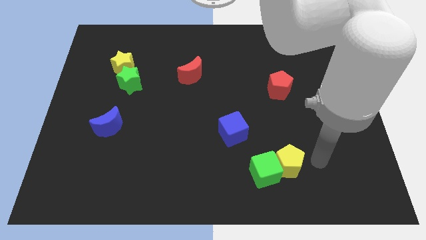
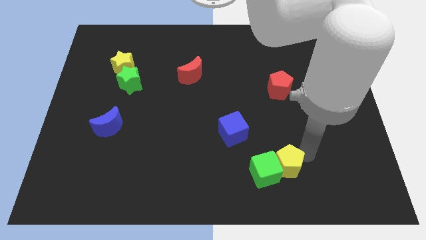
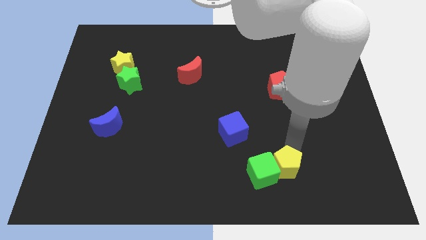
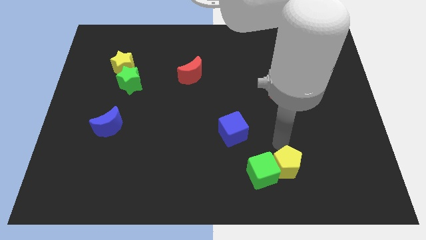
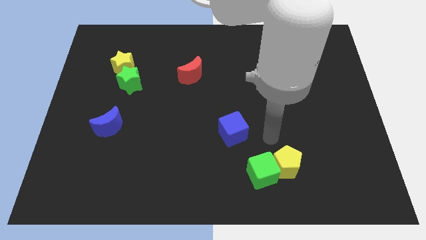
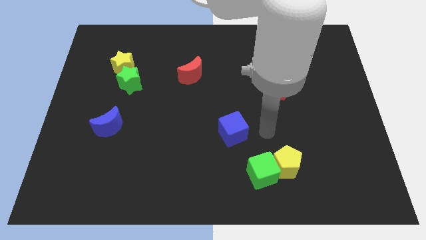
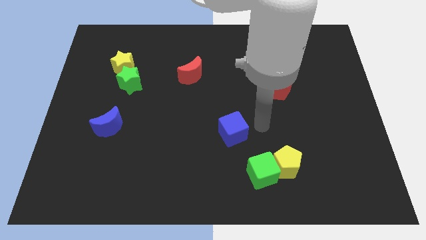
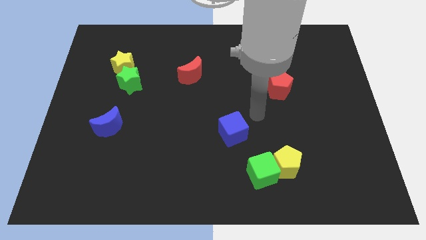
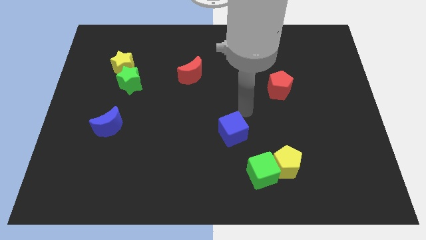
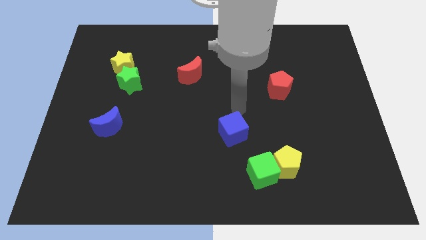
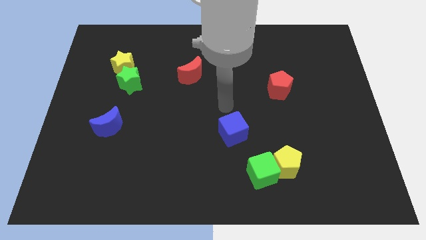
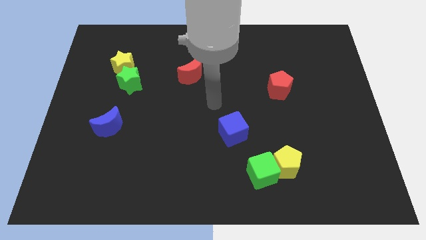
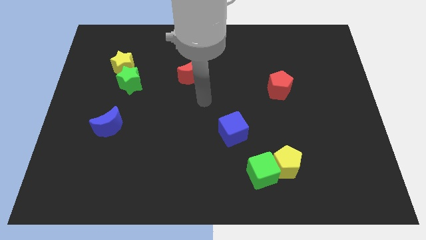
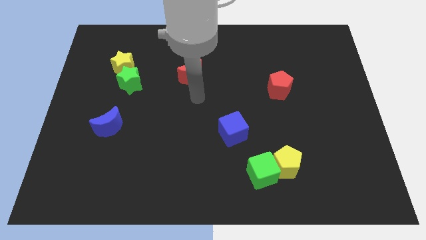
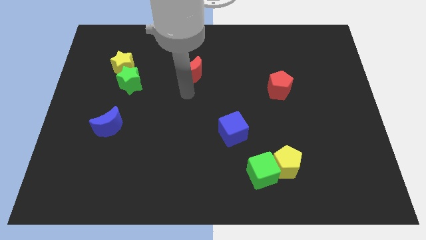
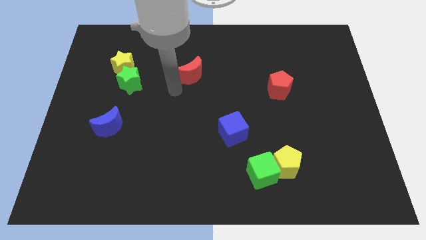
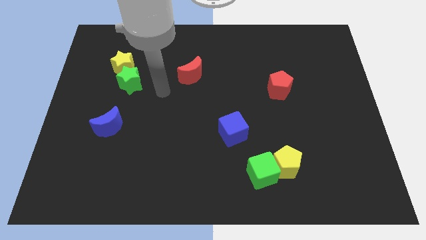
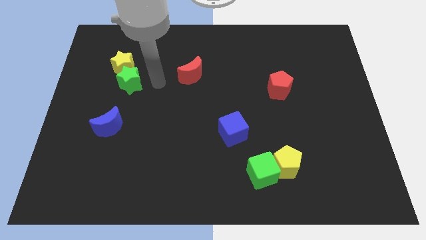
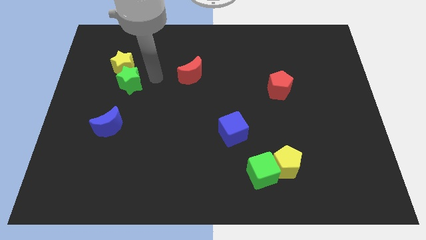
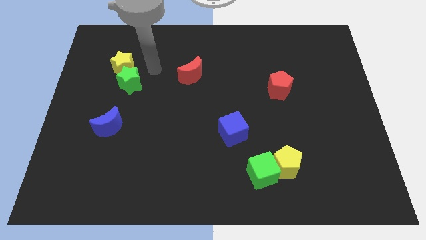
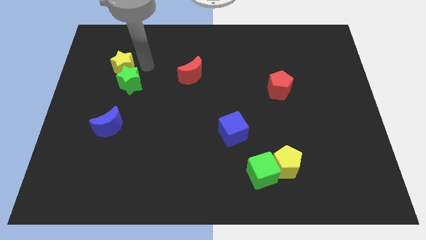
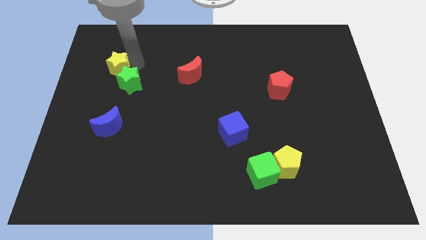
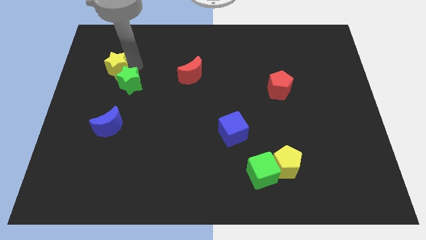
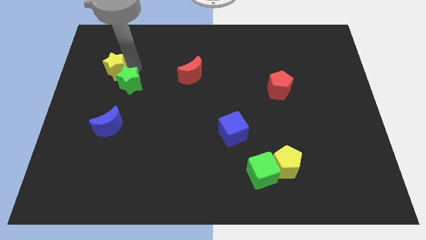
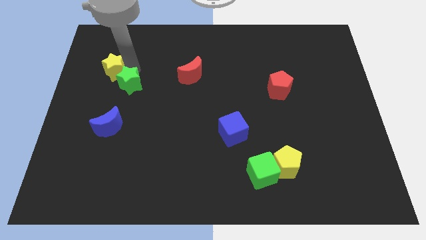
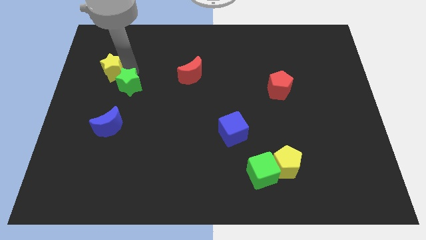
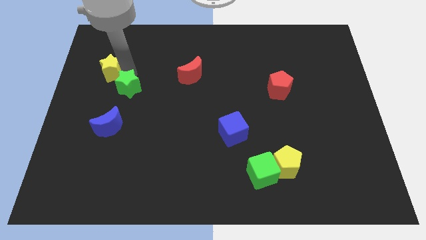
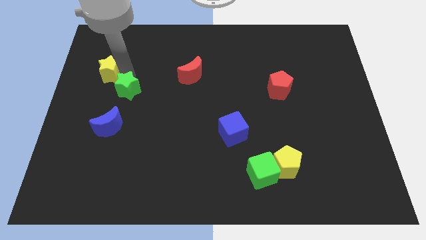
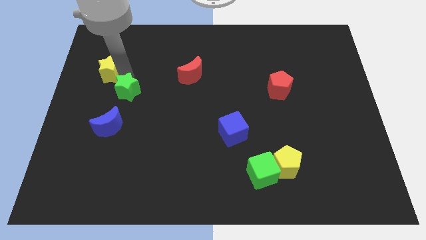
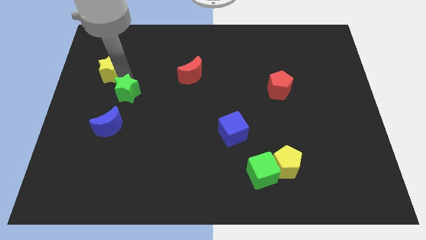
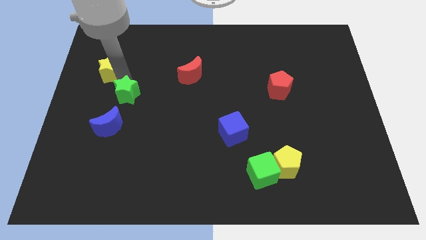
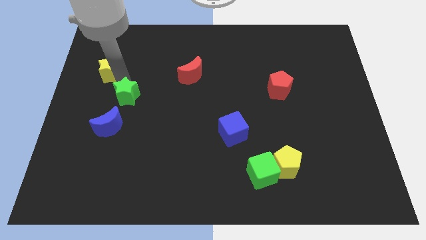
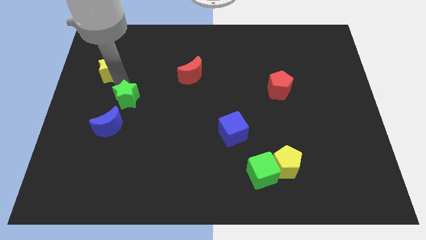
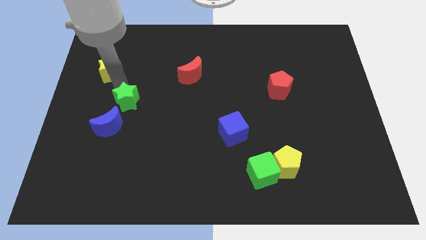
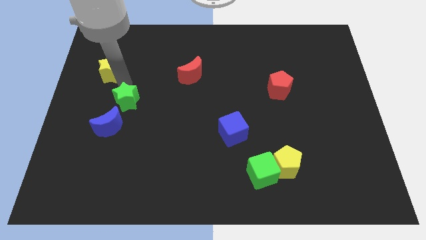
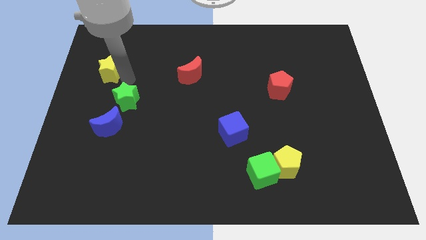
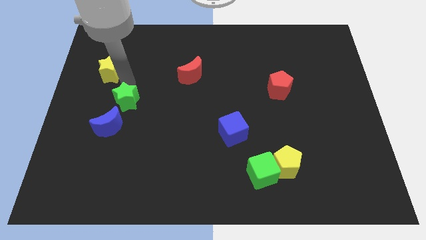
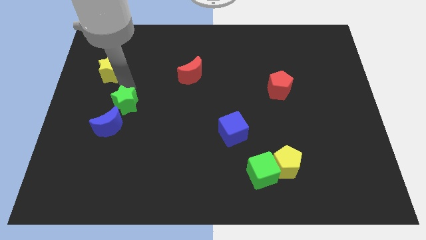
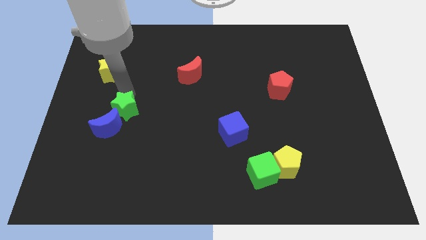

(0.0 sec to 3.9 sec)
push the green star down a little bit

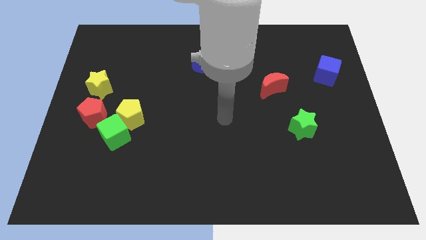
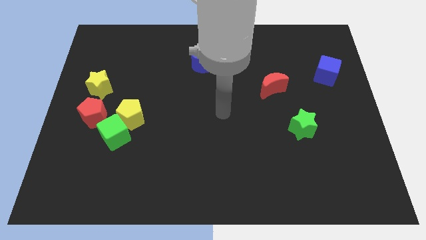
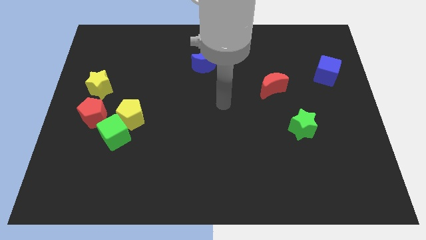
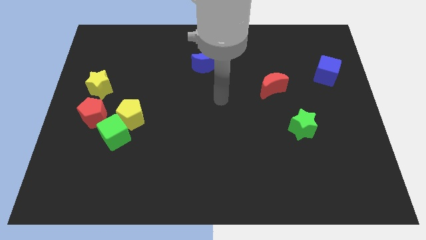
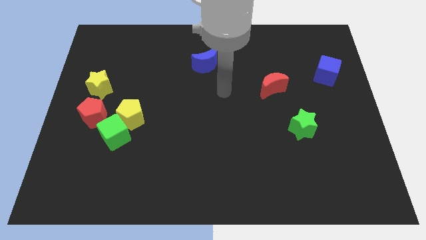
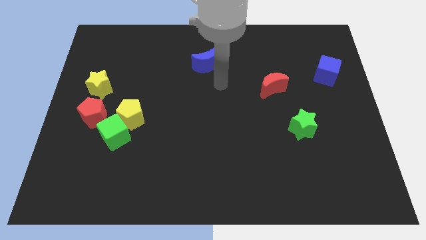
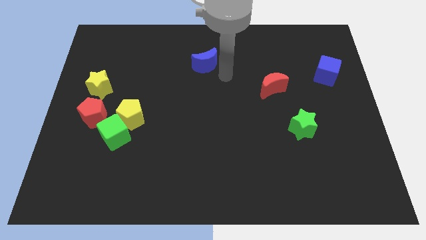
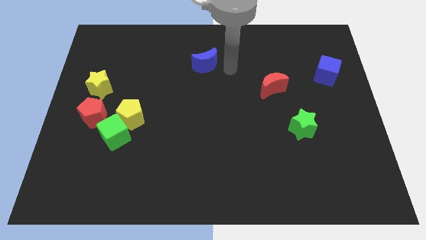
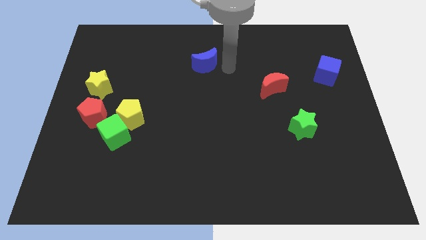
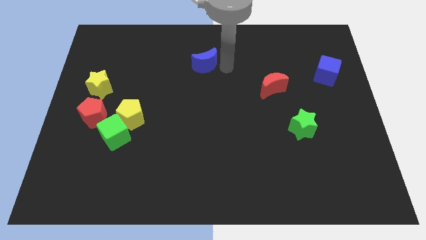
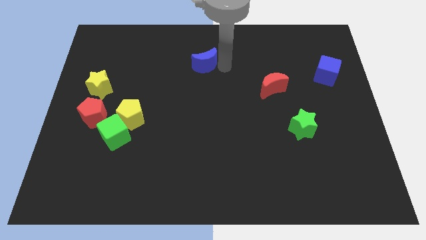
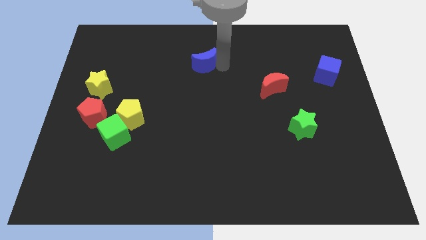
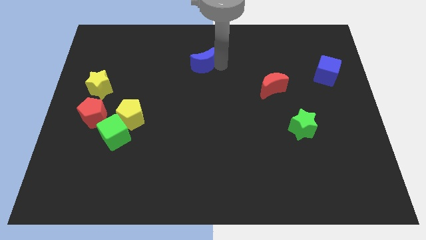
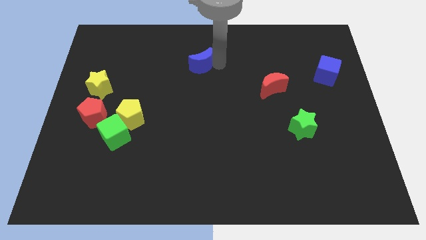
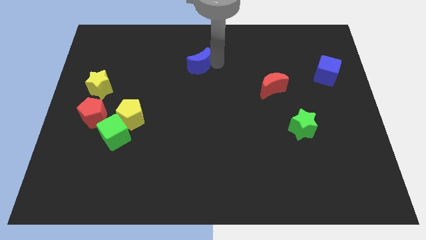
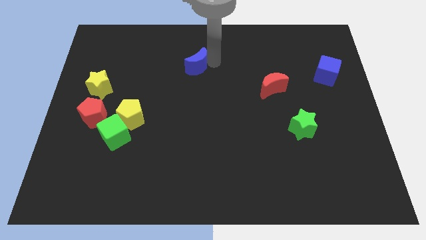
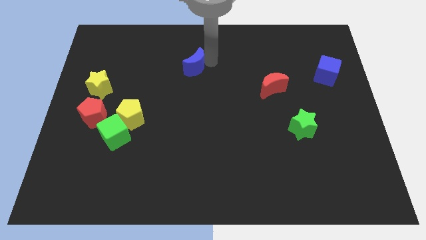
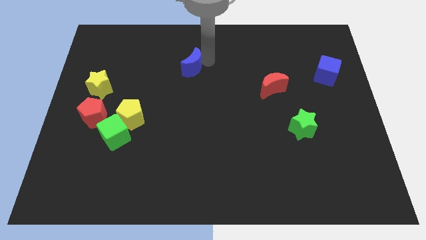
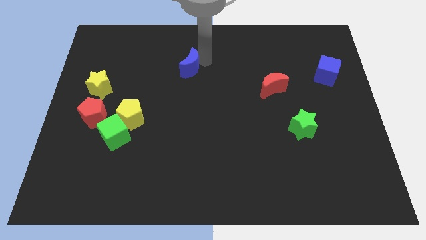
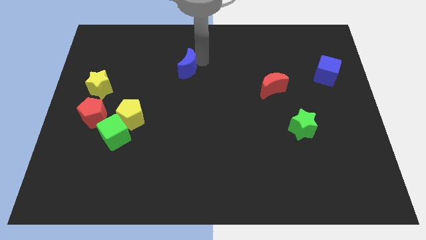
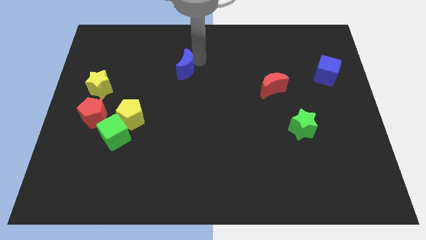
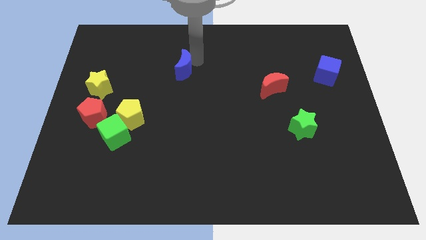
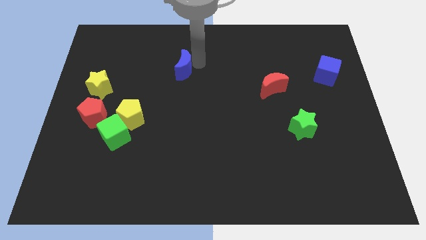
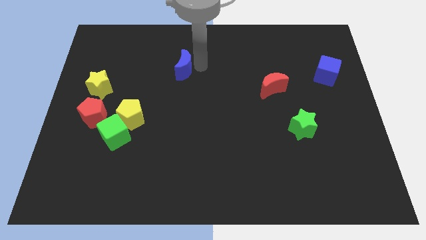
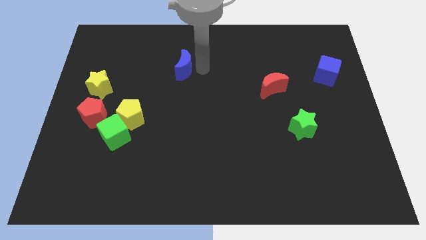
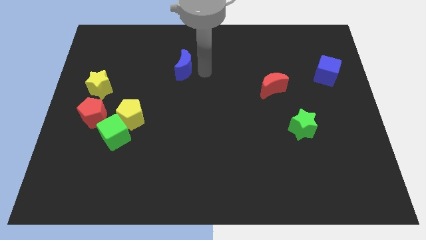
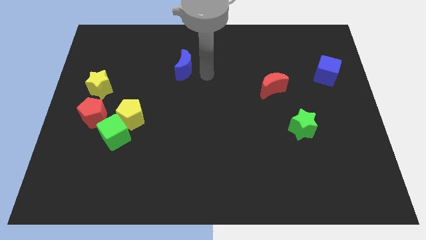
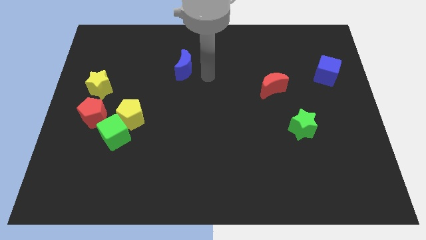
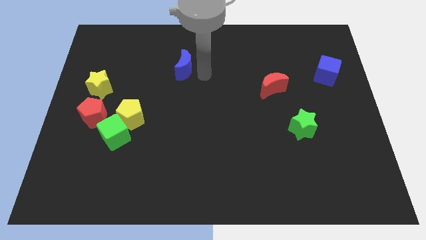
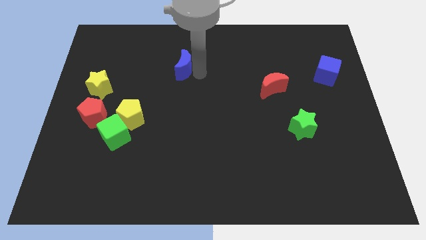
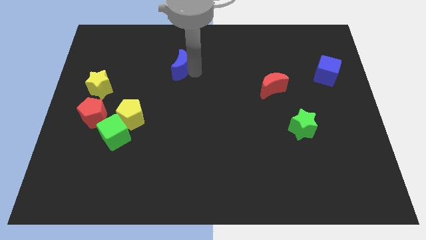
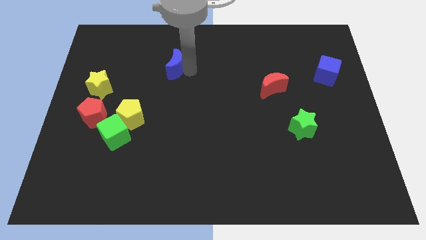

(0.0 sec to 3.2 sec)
slide the blue moon left somewhat

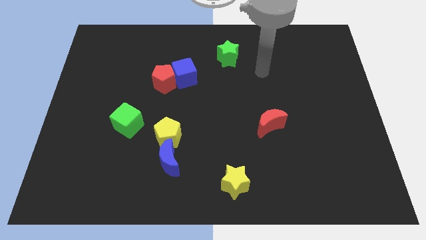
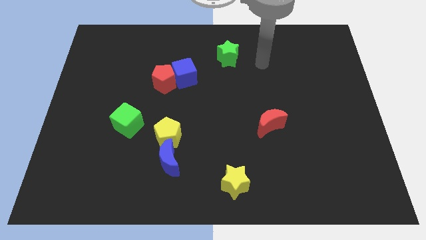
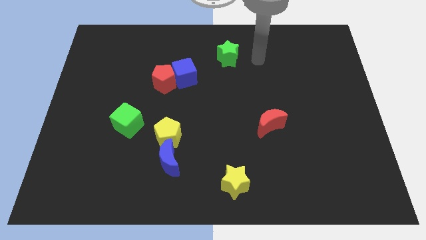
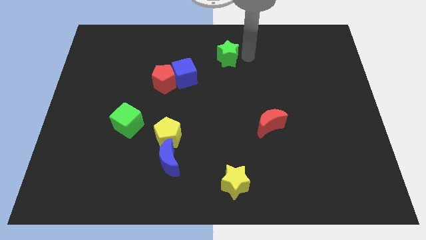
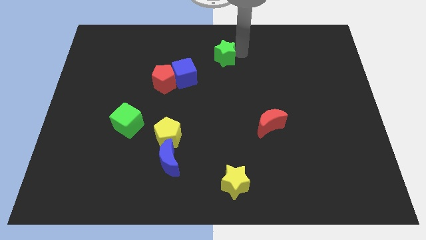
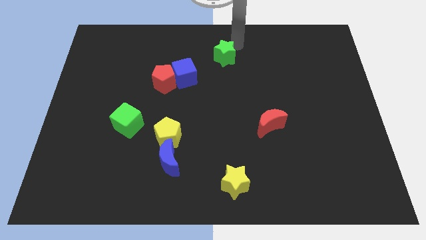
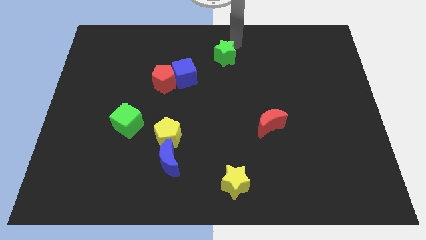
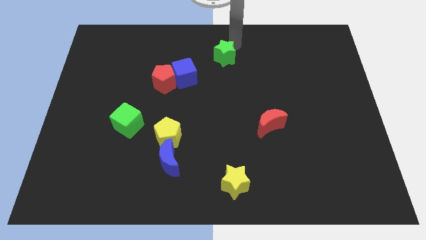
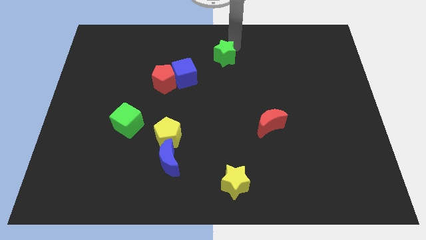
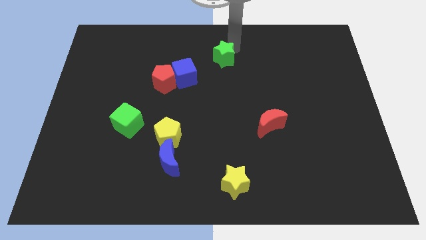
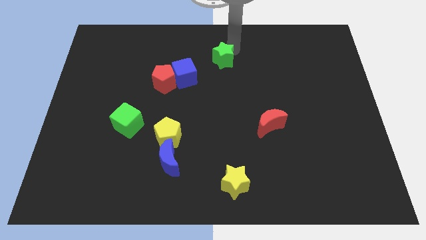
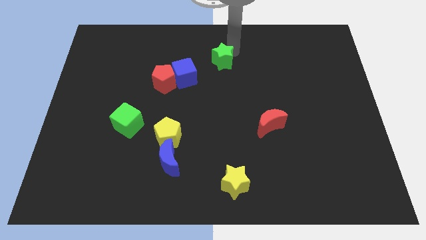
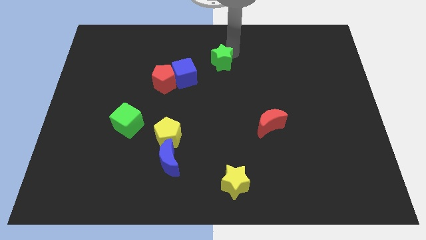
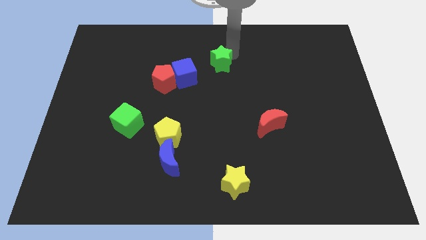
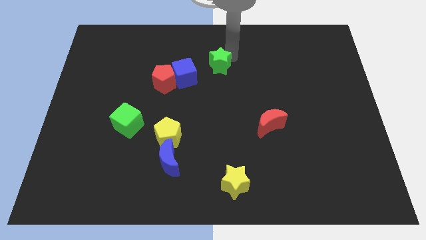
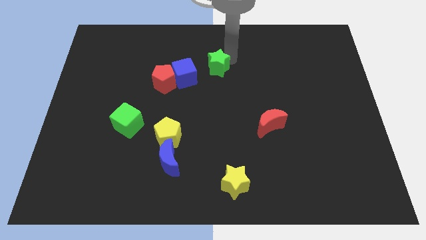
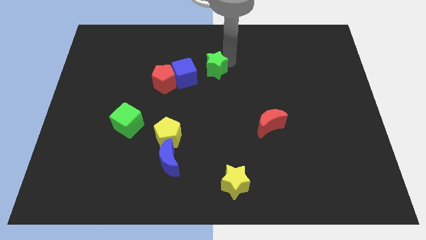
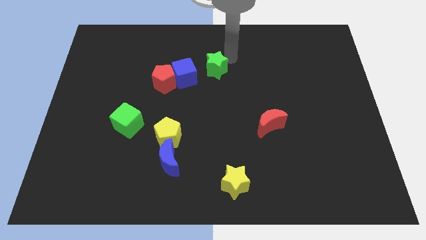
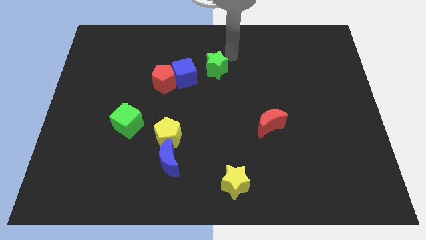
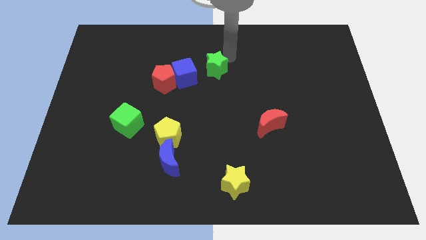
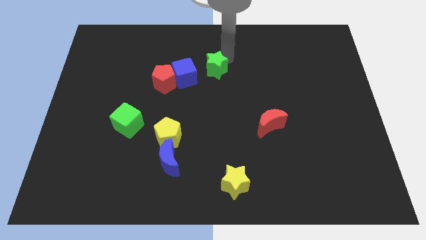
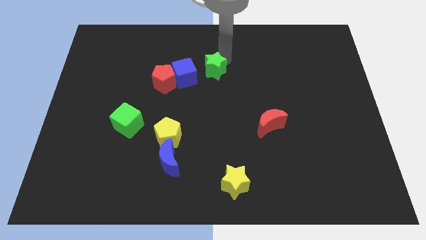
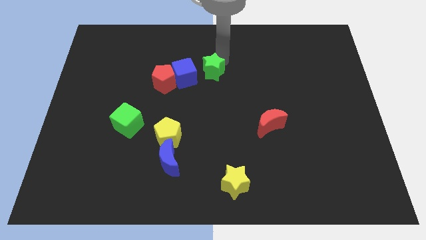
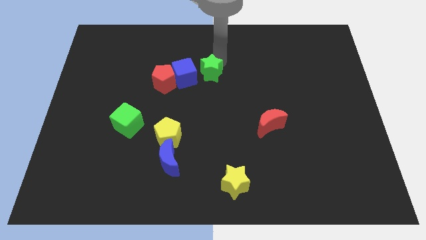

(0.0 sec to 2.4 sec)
push the green star down and left diagonally a little
